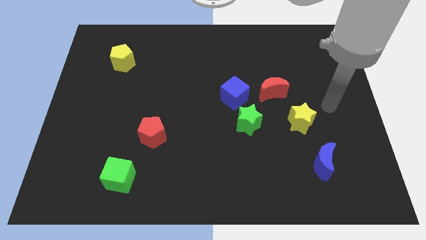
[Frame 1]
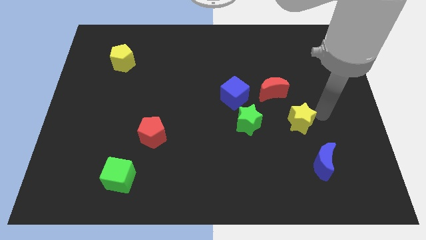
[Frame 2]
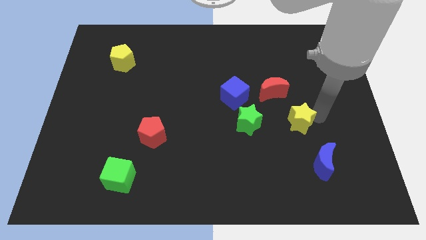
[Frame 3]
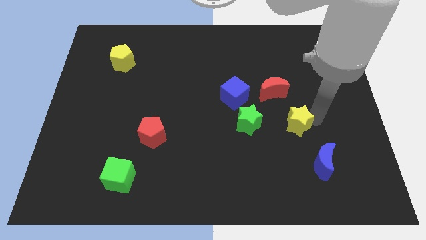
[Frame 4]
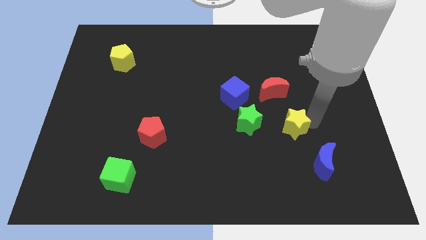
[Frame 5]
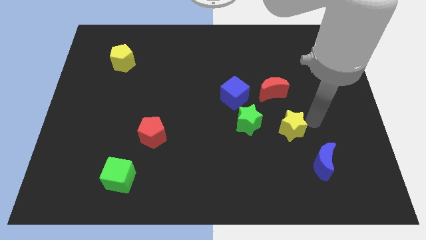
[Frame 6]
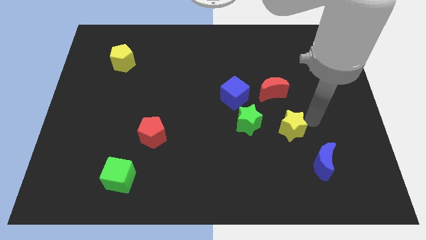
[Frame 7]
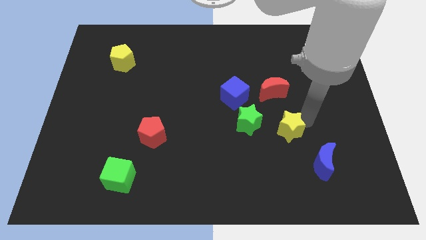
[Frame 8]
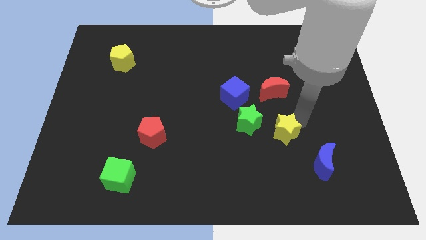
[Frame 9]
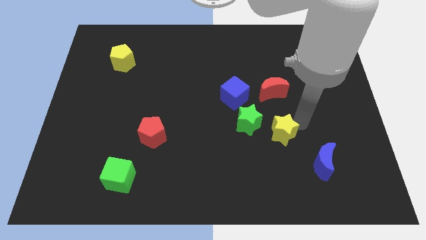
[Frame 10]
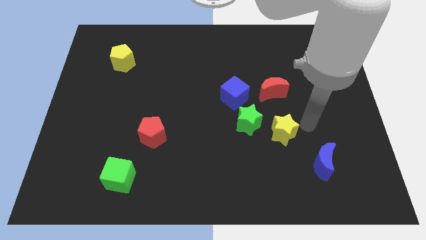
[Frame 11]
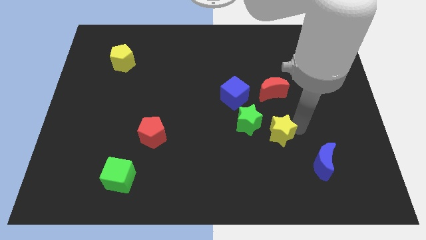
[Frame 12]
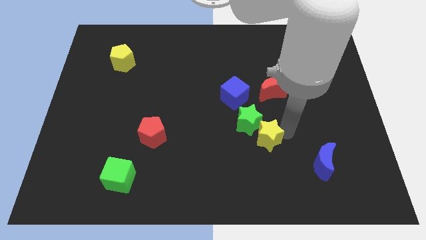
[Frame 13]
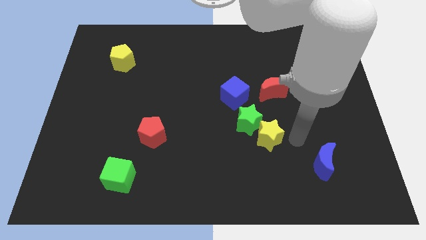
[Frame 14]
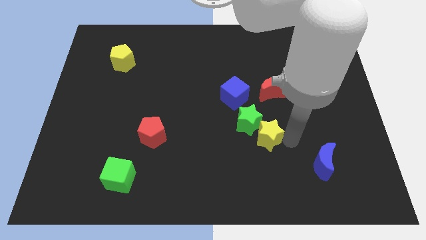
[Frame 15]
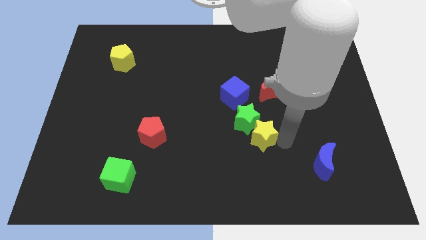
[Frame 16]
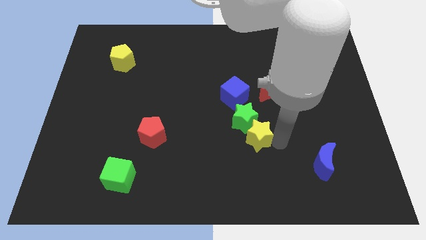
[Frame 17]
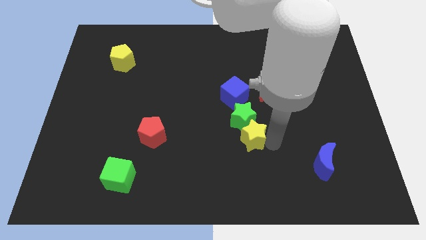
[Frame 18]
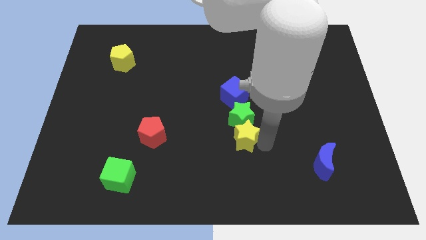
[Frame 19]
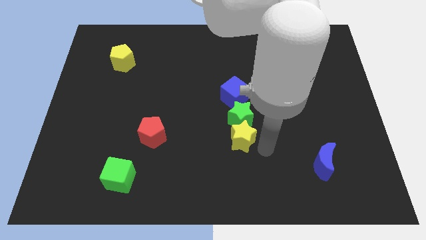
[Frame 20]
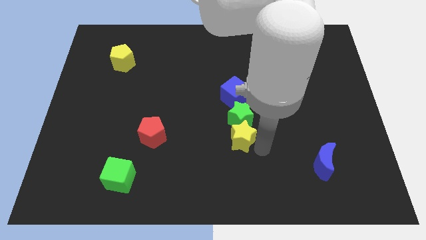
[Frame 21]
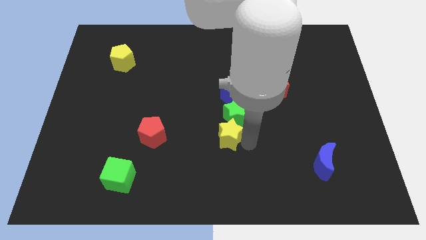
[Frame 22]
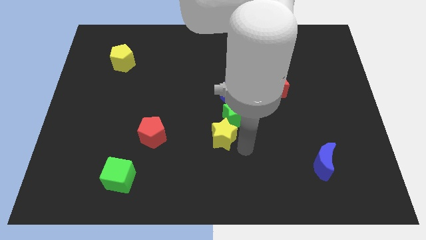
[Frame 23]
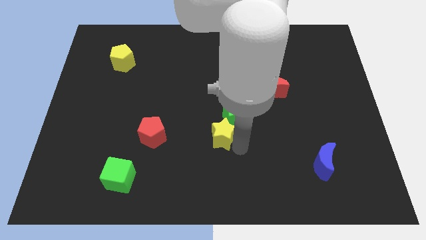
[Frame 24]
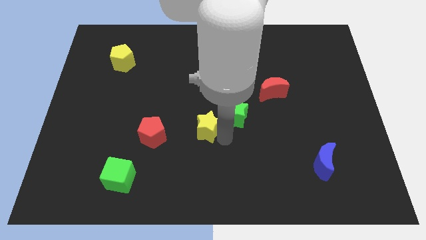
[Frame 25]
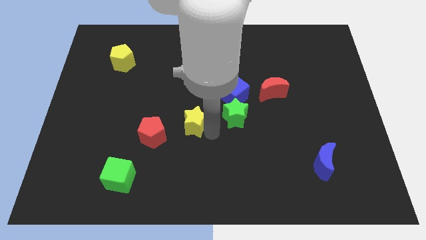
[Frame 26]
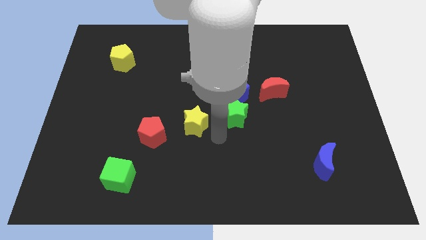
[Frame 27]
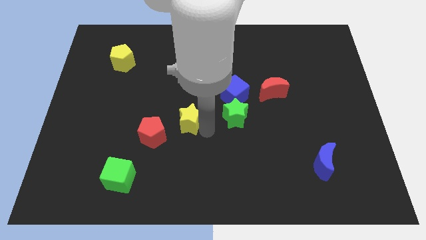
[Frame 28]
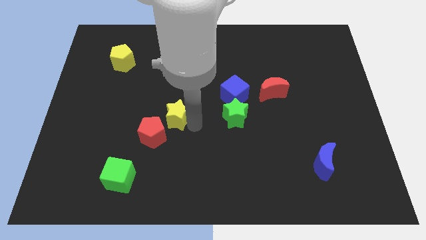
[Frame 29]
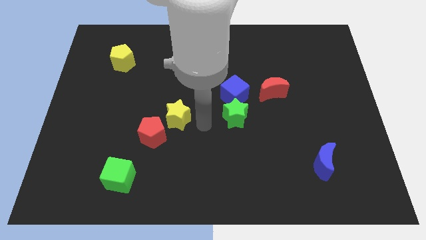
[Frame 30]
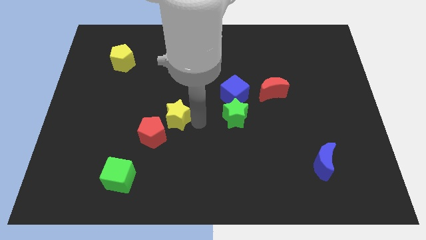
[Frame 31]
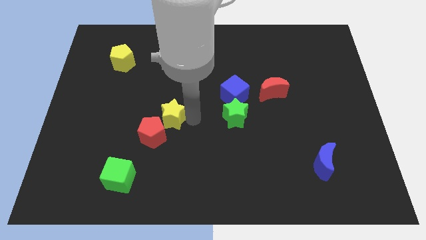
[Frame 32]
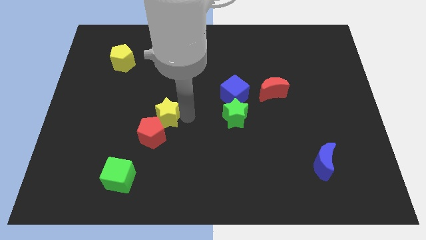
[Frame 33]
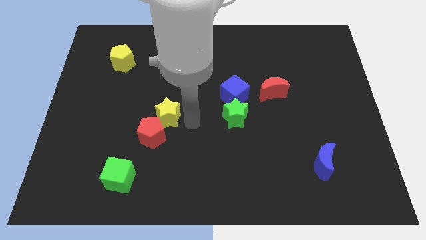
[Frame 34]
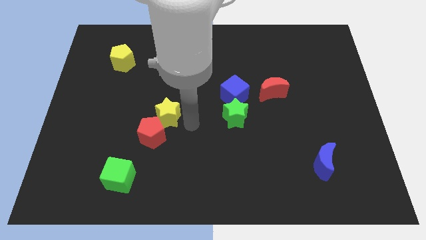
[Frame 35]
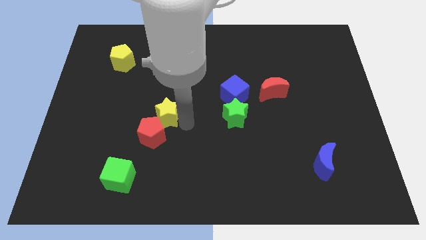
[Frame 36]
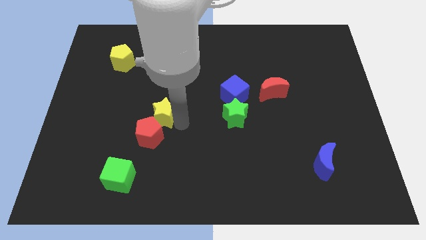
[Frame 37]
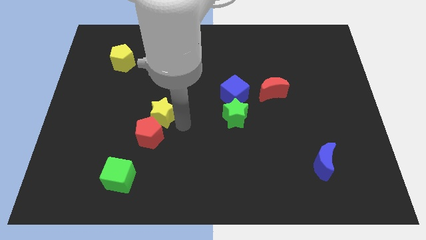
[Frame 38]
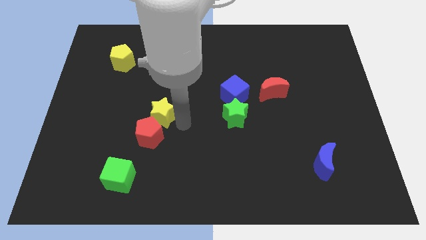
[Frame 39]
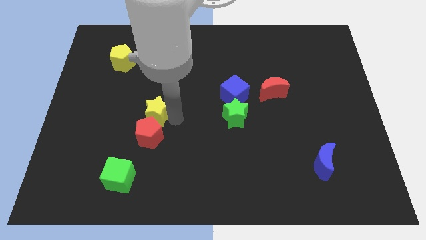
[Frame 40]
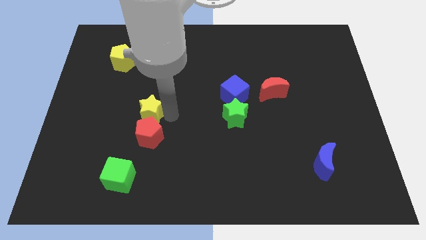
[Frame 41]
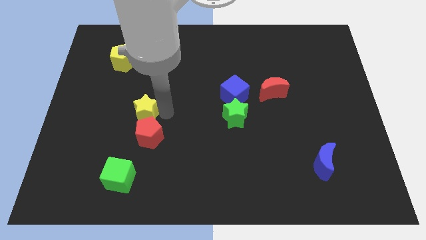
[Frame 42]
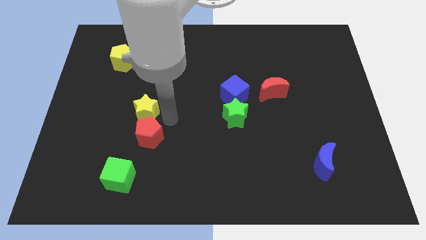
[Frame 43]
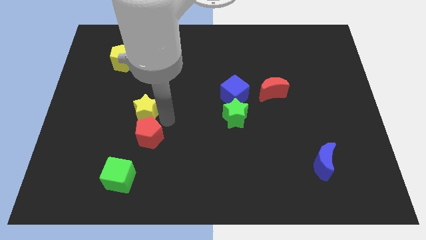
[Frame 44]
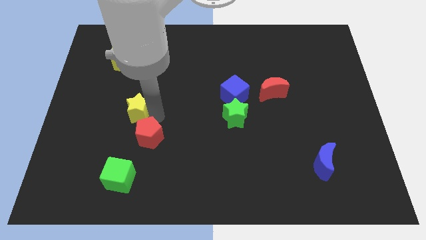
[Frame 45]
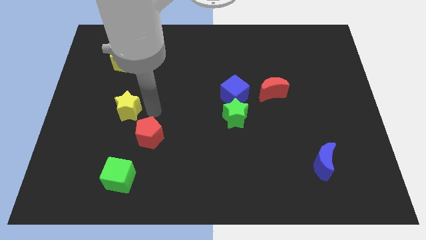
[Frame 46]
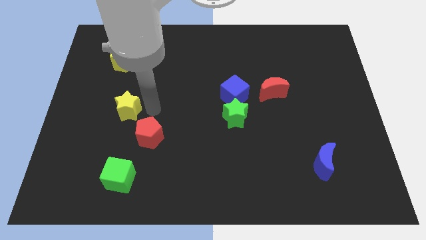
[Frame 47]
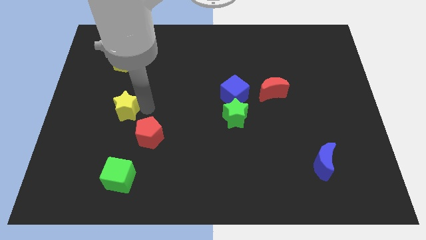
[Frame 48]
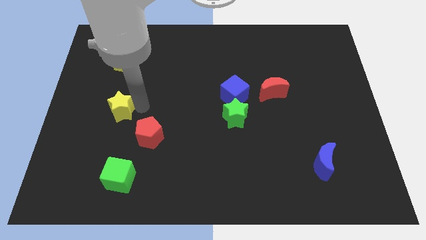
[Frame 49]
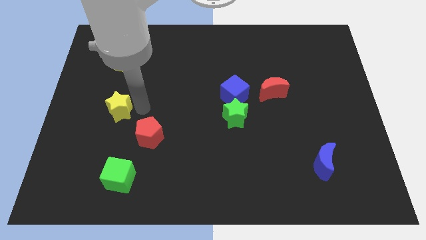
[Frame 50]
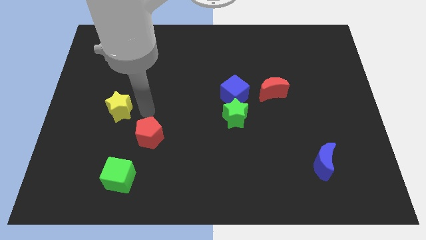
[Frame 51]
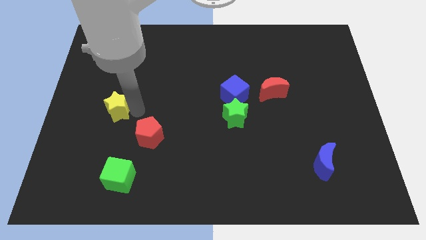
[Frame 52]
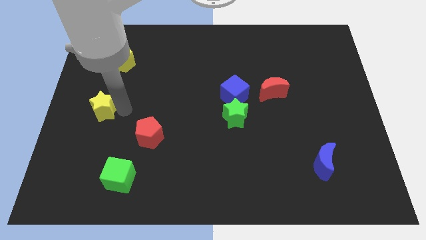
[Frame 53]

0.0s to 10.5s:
push the yellow star to the left side of the board

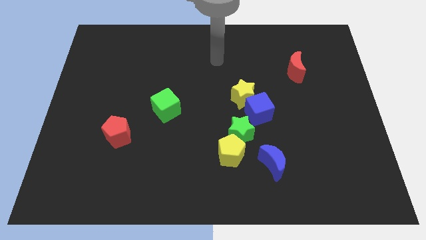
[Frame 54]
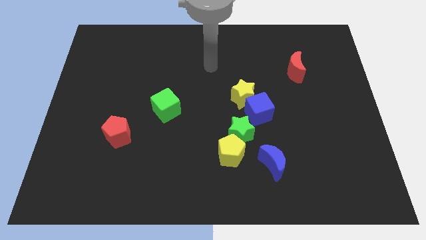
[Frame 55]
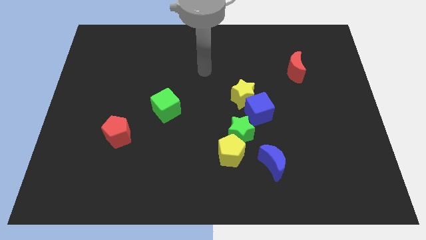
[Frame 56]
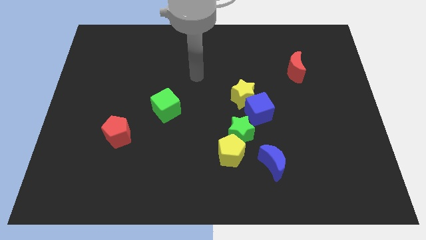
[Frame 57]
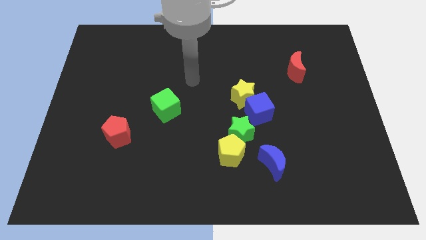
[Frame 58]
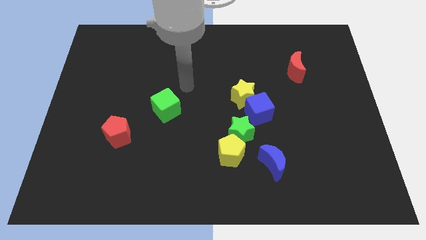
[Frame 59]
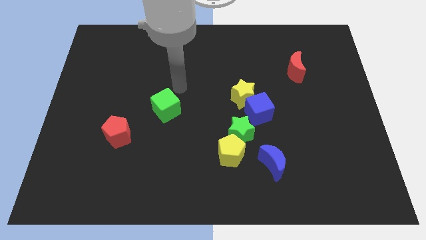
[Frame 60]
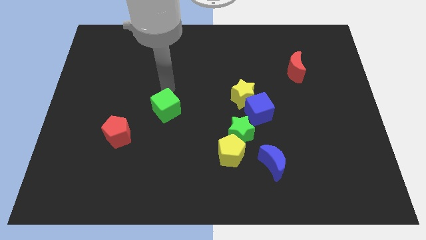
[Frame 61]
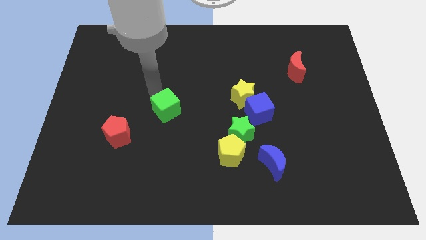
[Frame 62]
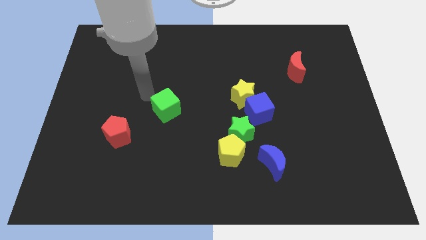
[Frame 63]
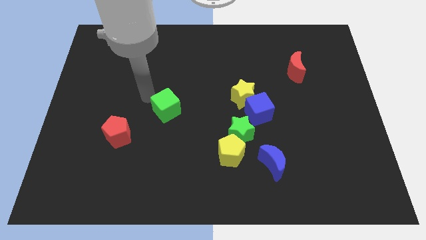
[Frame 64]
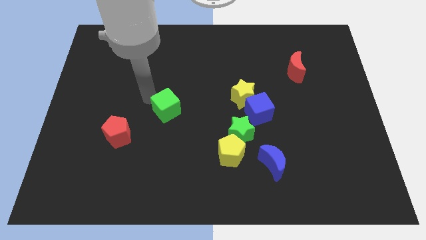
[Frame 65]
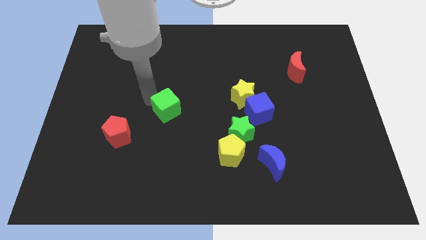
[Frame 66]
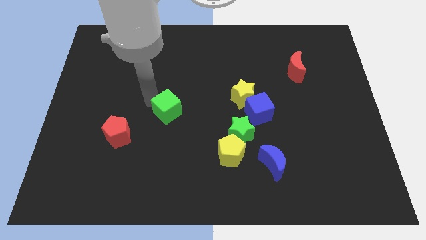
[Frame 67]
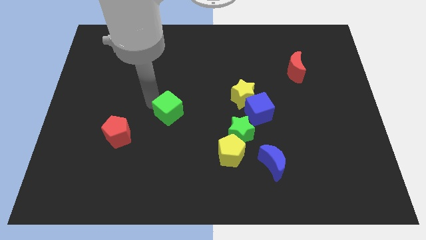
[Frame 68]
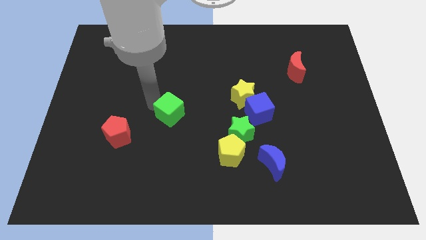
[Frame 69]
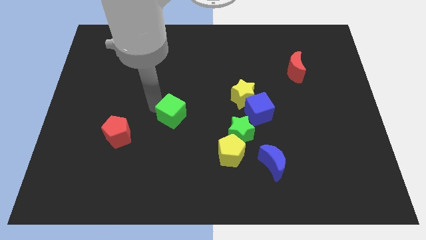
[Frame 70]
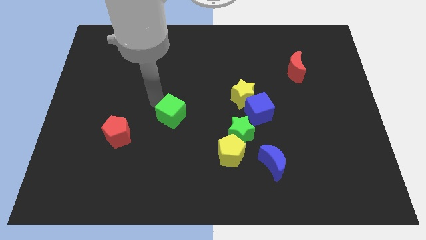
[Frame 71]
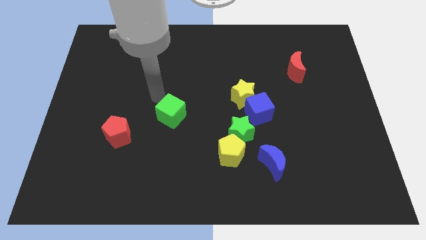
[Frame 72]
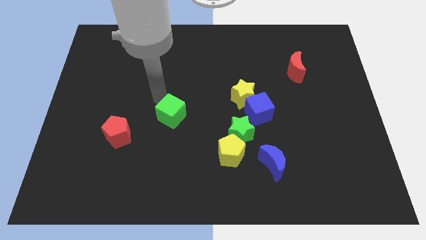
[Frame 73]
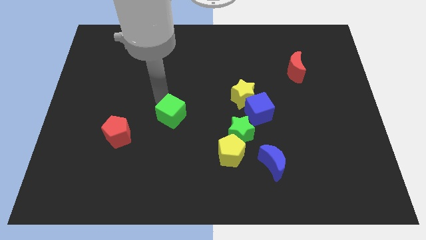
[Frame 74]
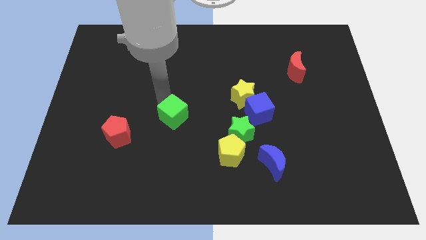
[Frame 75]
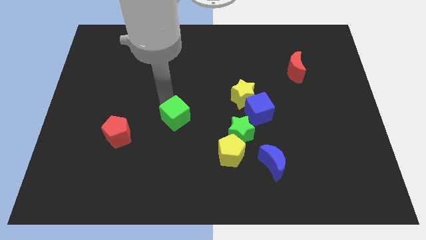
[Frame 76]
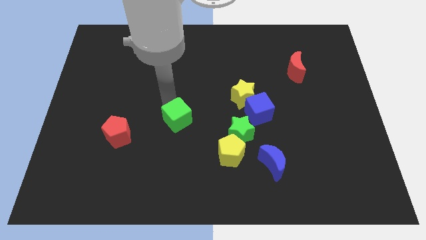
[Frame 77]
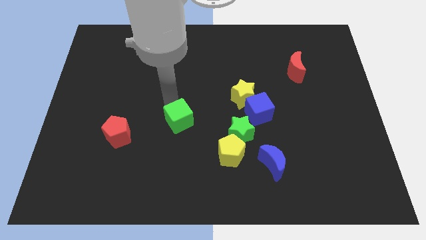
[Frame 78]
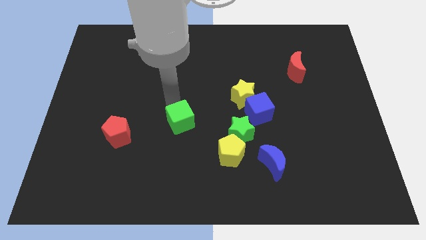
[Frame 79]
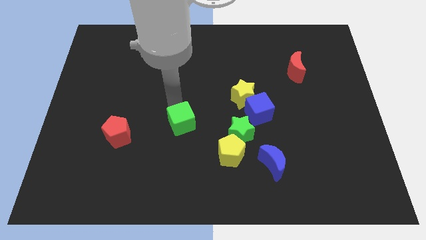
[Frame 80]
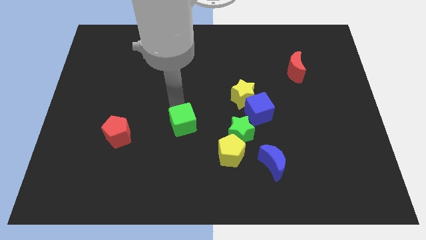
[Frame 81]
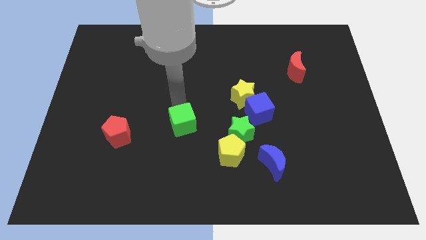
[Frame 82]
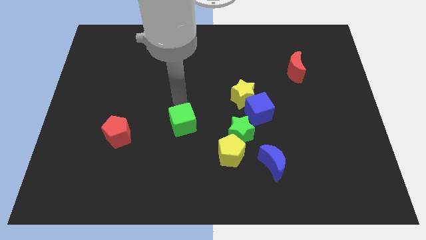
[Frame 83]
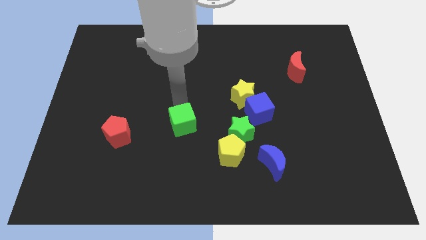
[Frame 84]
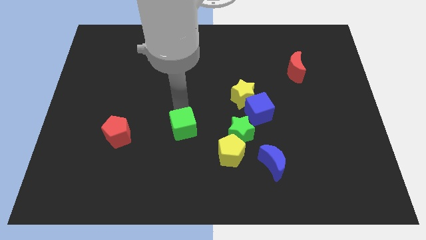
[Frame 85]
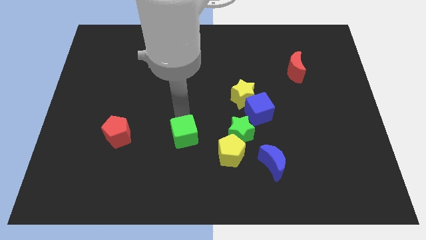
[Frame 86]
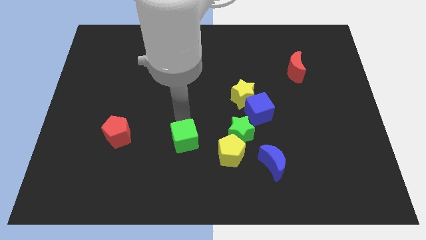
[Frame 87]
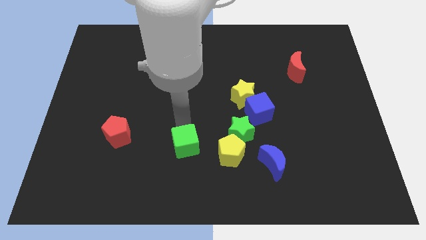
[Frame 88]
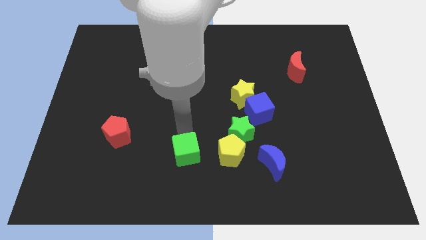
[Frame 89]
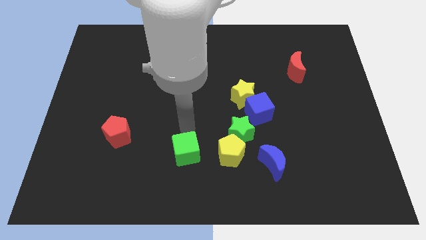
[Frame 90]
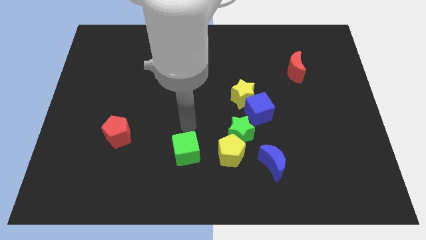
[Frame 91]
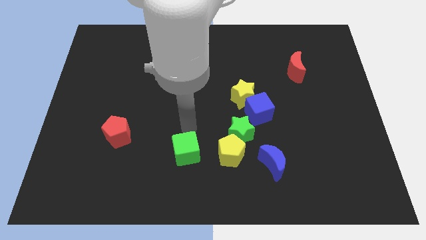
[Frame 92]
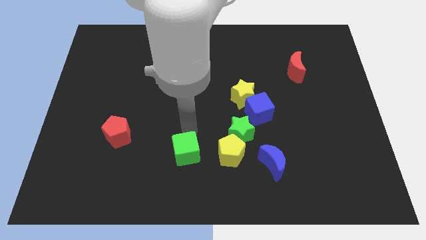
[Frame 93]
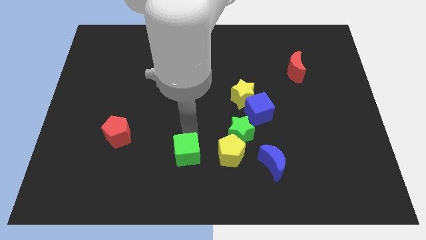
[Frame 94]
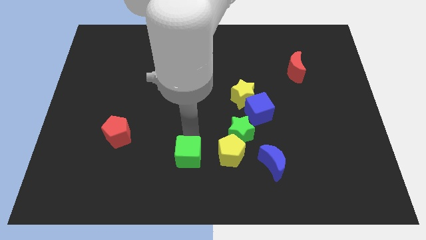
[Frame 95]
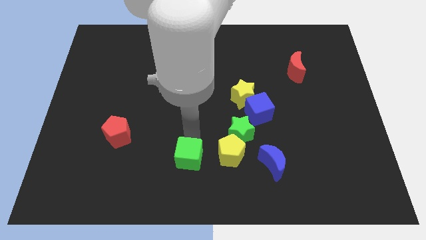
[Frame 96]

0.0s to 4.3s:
slide the green cube to the bottom side
